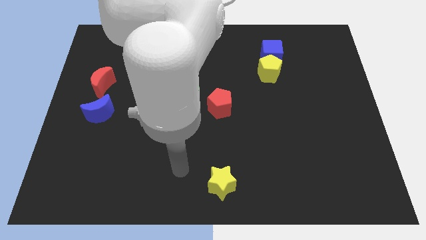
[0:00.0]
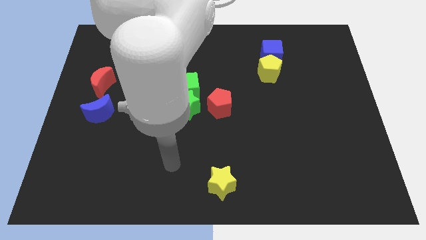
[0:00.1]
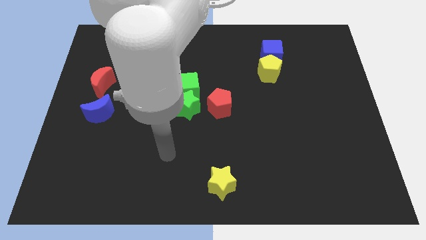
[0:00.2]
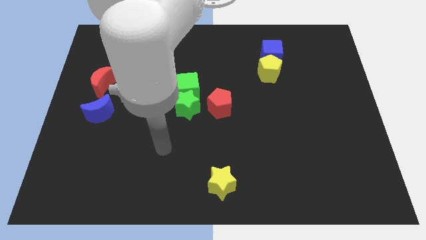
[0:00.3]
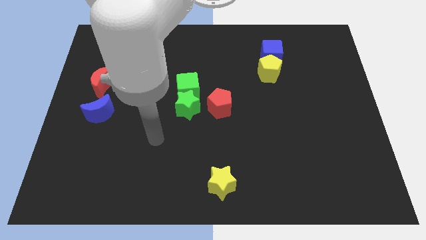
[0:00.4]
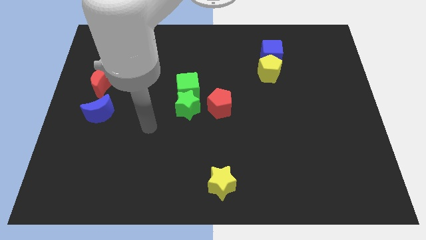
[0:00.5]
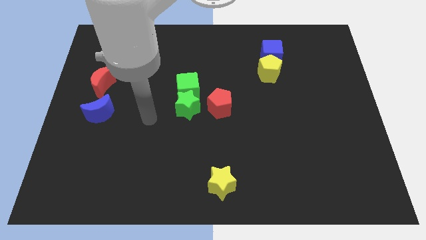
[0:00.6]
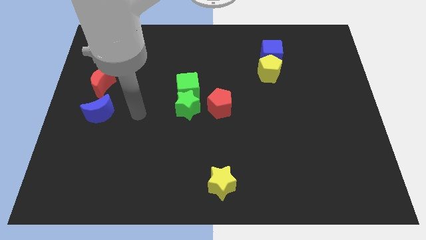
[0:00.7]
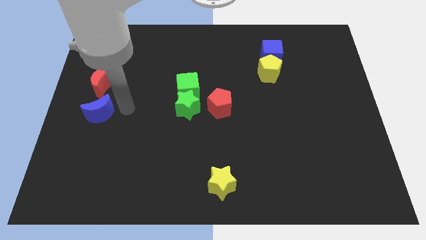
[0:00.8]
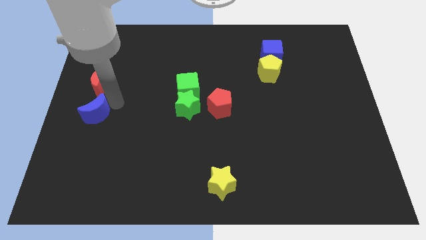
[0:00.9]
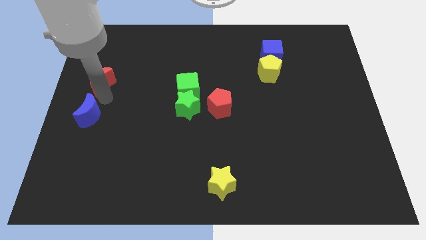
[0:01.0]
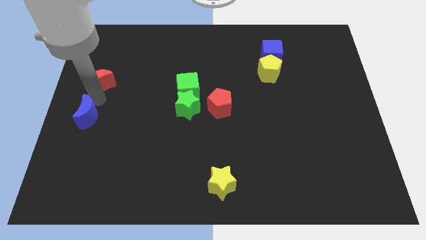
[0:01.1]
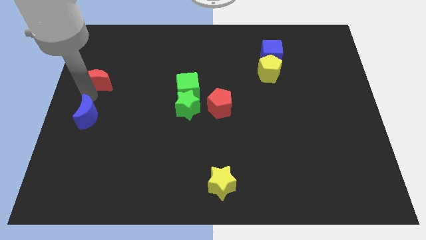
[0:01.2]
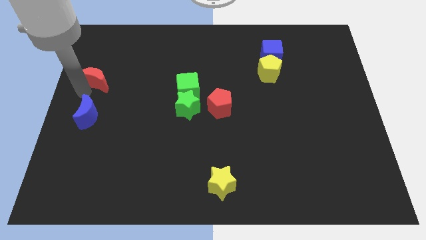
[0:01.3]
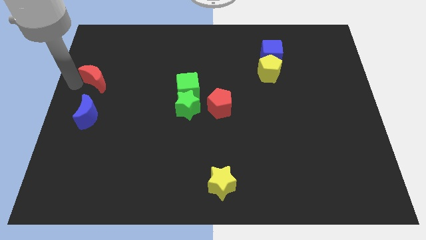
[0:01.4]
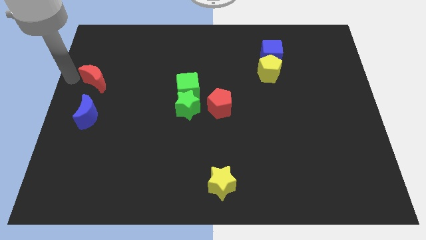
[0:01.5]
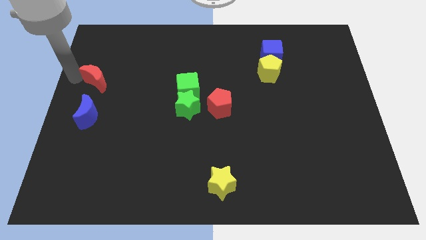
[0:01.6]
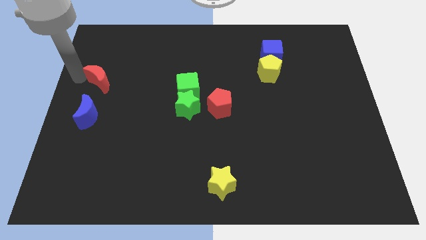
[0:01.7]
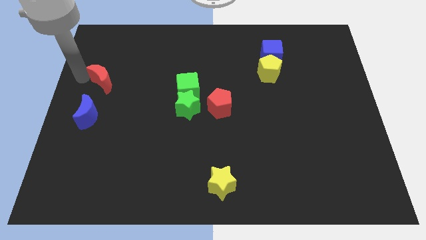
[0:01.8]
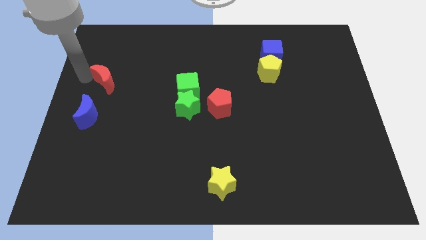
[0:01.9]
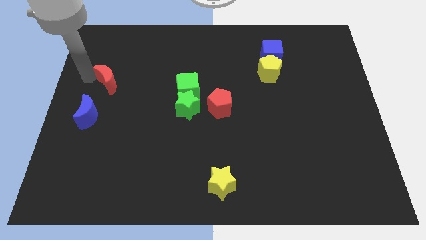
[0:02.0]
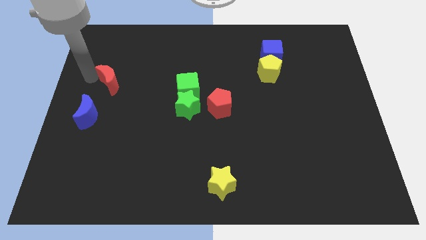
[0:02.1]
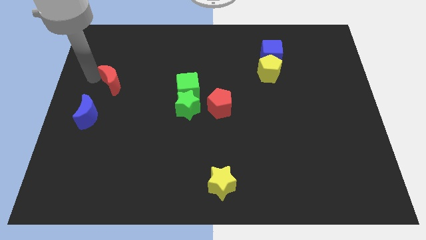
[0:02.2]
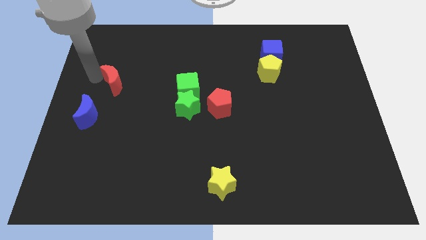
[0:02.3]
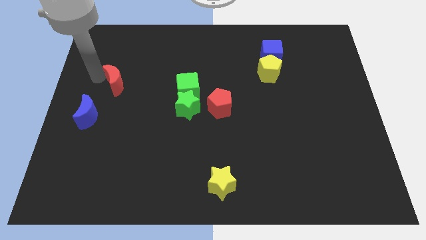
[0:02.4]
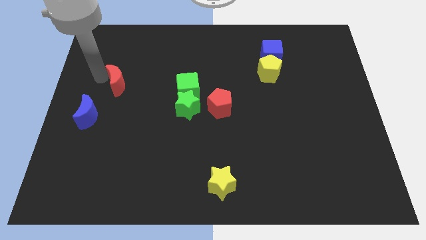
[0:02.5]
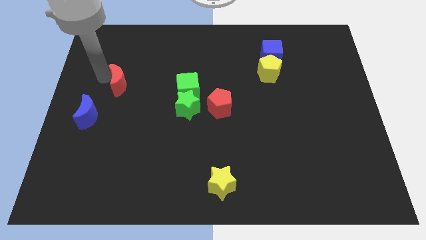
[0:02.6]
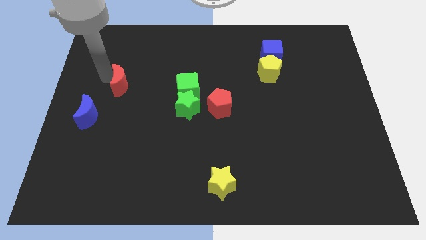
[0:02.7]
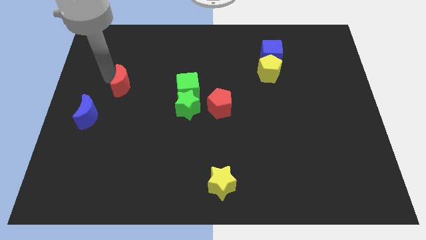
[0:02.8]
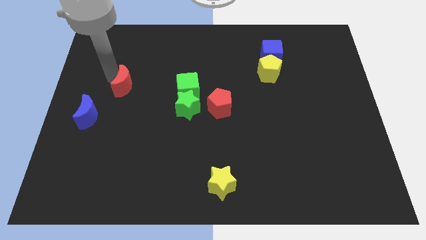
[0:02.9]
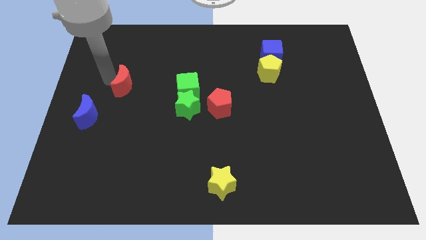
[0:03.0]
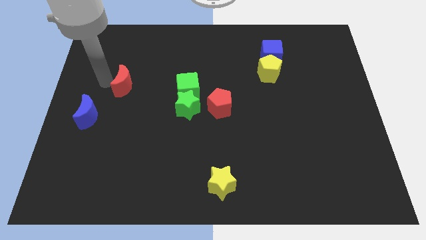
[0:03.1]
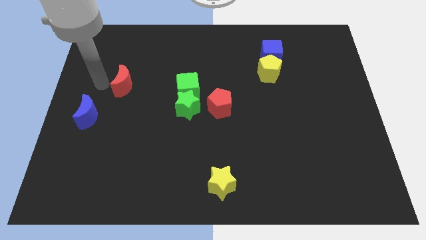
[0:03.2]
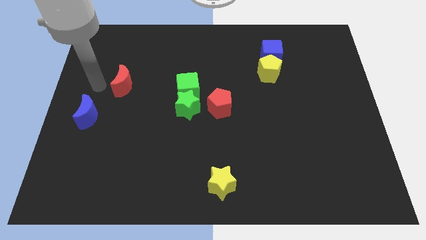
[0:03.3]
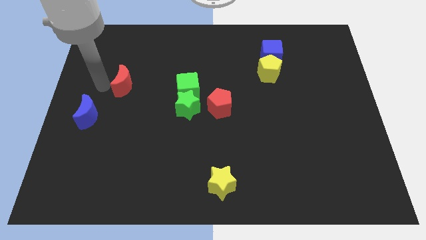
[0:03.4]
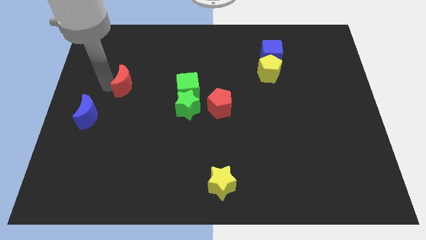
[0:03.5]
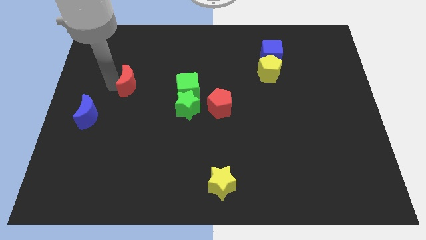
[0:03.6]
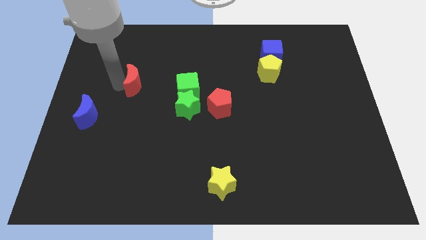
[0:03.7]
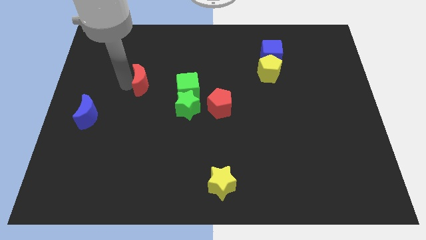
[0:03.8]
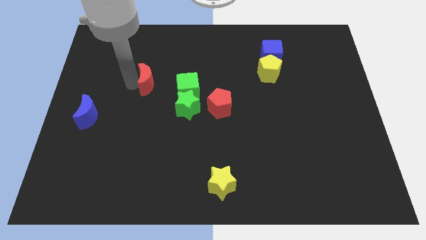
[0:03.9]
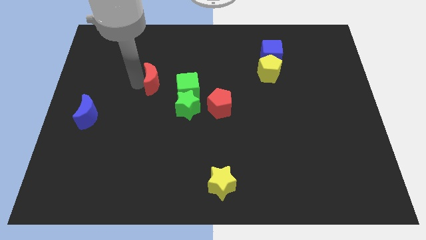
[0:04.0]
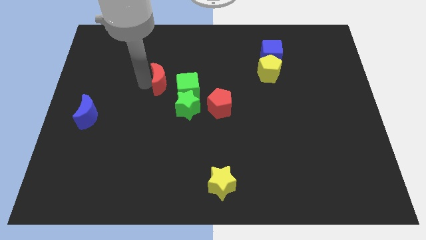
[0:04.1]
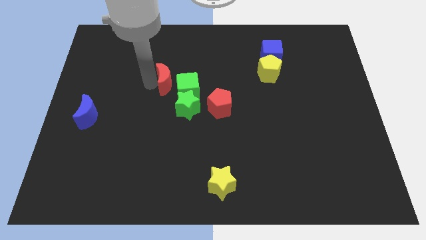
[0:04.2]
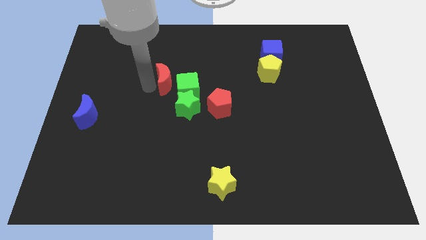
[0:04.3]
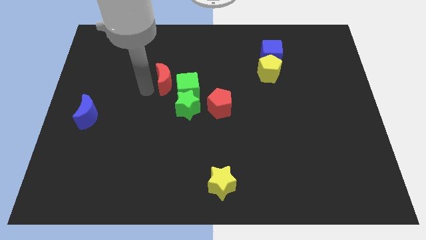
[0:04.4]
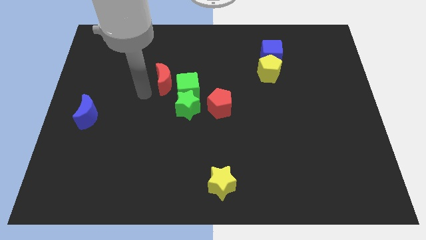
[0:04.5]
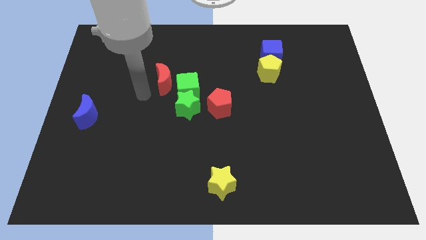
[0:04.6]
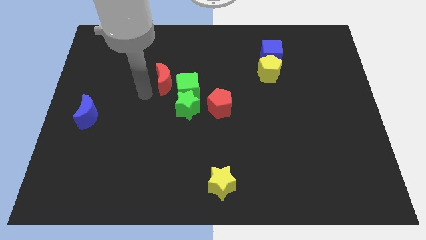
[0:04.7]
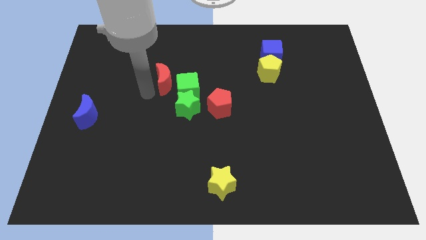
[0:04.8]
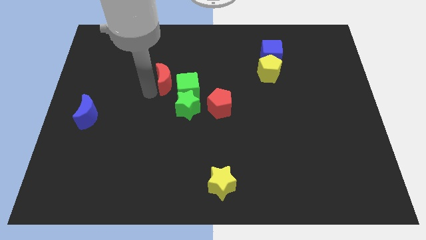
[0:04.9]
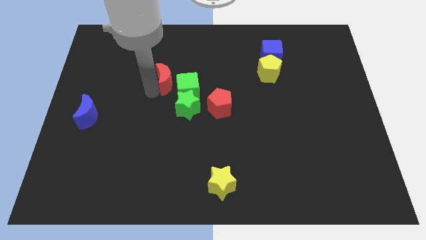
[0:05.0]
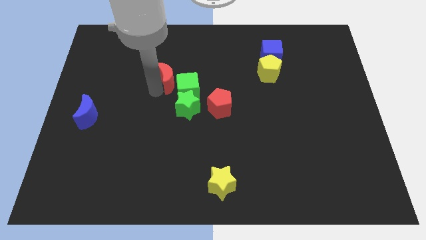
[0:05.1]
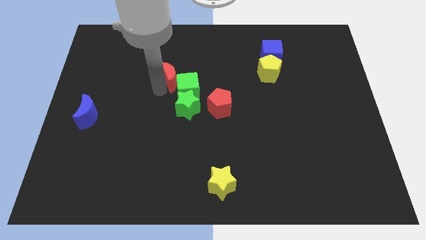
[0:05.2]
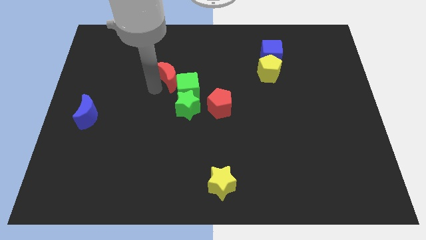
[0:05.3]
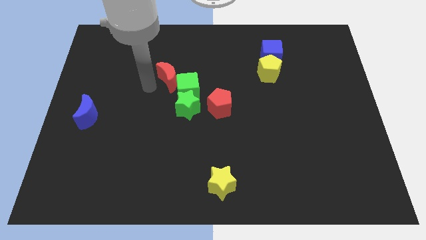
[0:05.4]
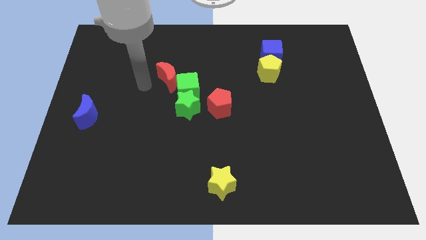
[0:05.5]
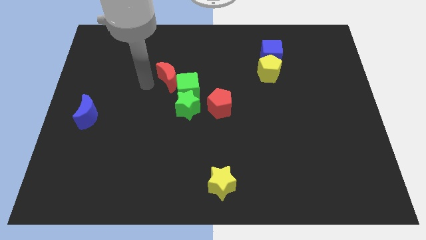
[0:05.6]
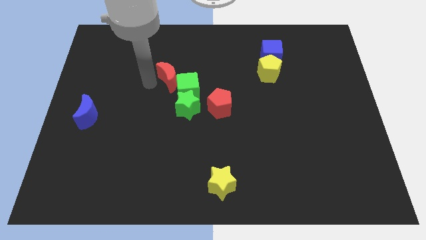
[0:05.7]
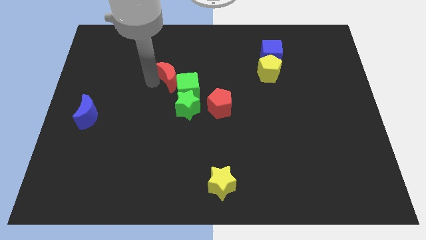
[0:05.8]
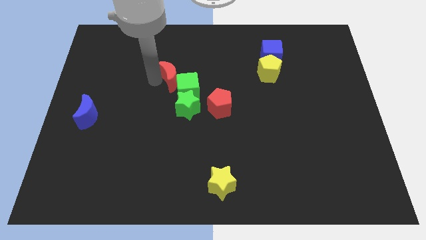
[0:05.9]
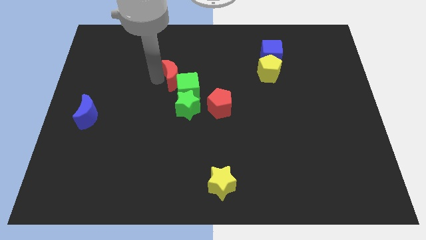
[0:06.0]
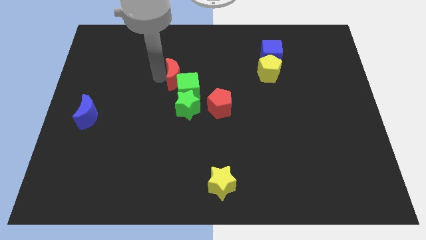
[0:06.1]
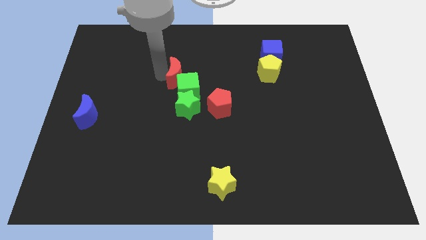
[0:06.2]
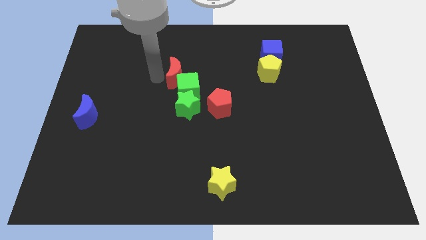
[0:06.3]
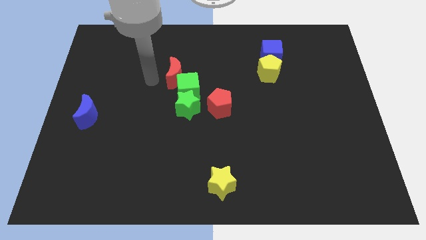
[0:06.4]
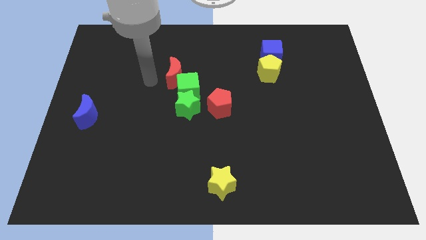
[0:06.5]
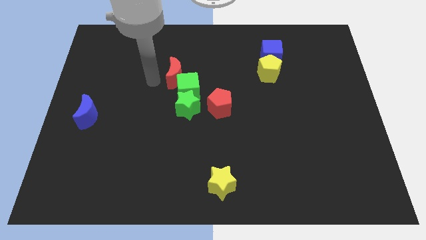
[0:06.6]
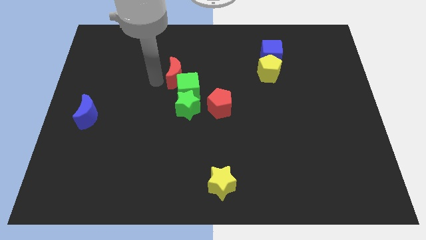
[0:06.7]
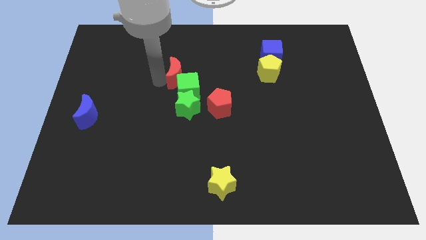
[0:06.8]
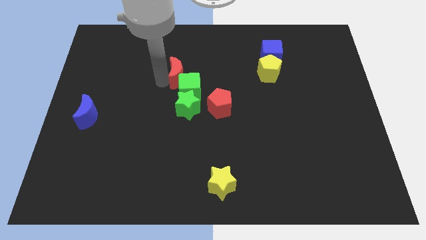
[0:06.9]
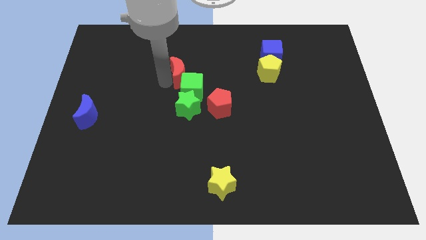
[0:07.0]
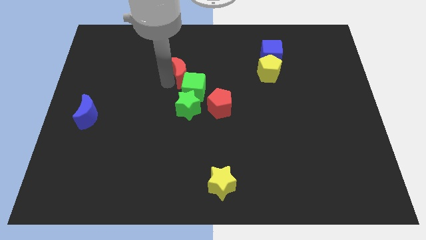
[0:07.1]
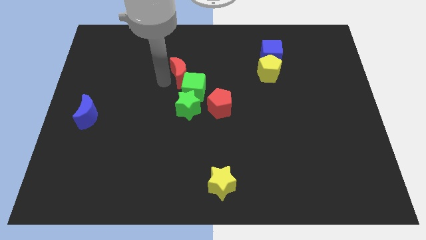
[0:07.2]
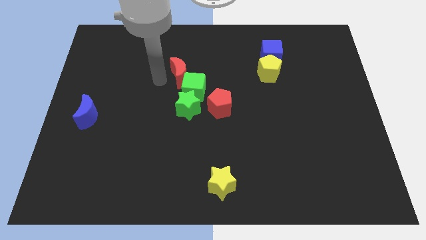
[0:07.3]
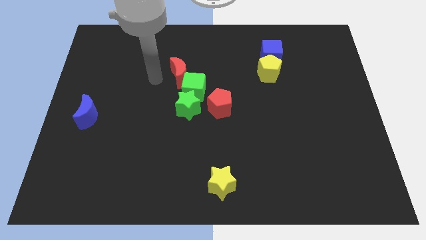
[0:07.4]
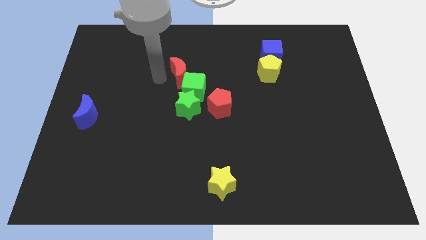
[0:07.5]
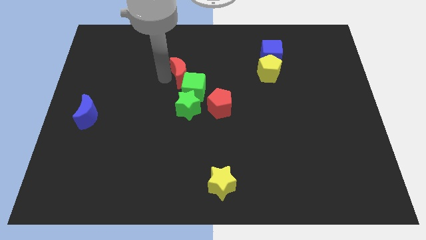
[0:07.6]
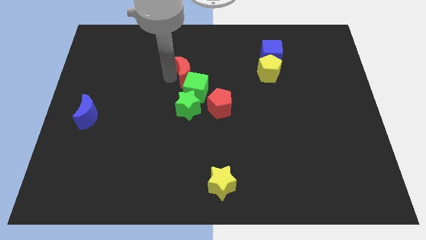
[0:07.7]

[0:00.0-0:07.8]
move the red moon right

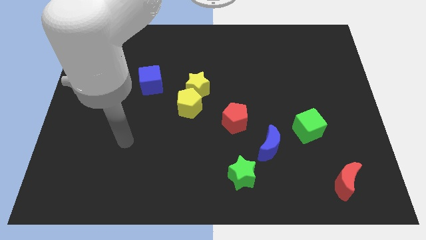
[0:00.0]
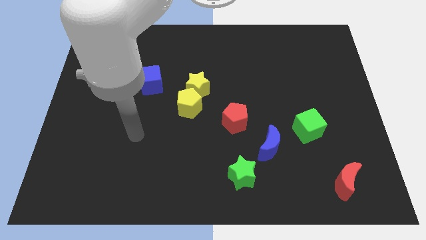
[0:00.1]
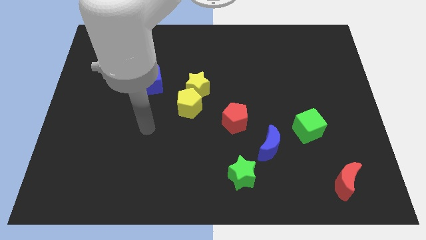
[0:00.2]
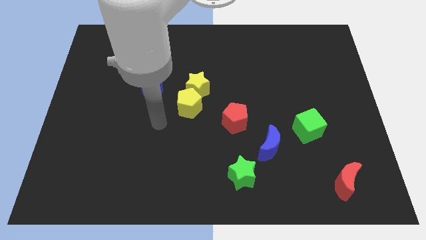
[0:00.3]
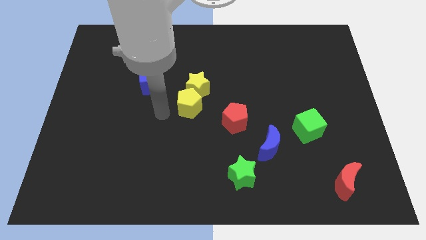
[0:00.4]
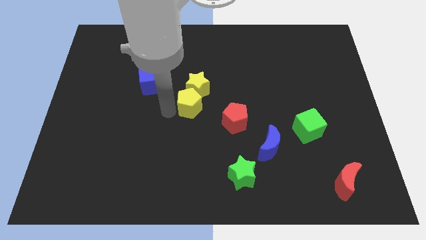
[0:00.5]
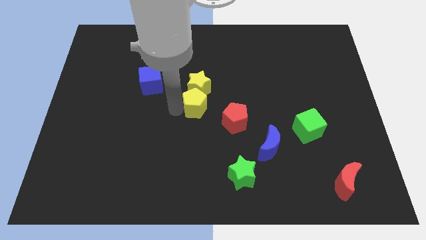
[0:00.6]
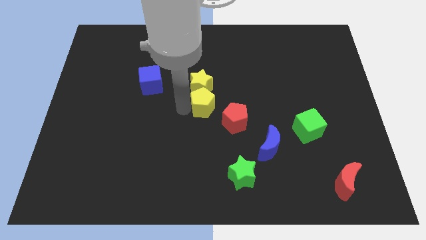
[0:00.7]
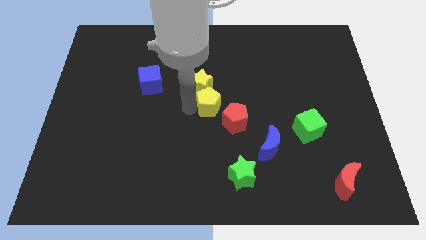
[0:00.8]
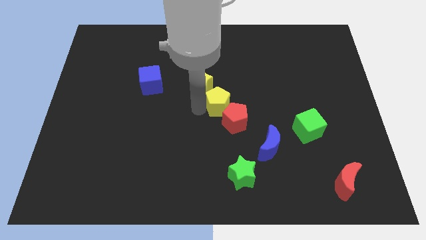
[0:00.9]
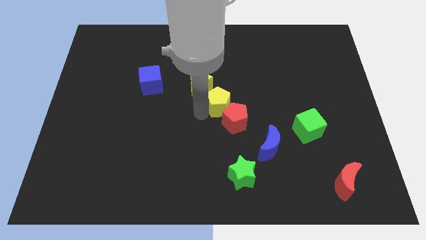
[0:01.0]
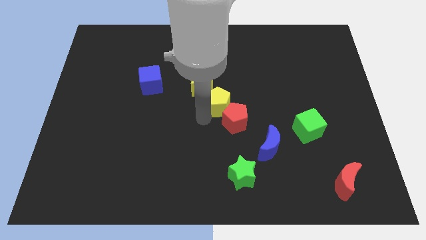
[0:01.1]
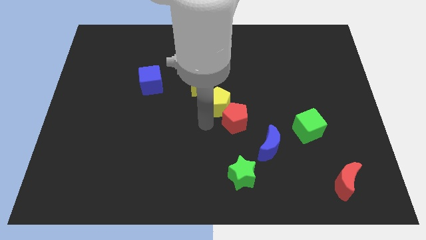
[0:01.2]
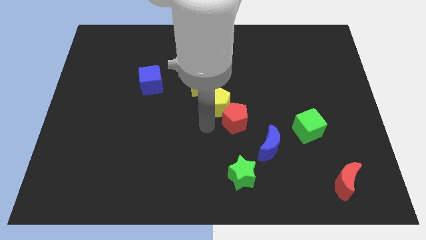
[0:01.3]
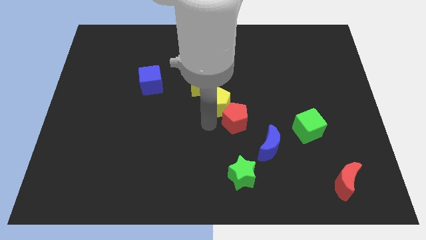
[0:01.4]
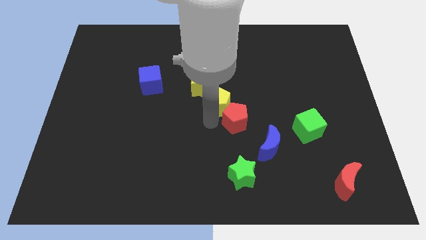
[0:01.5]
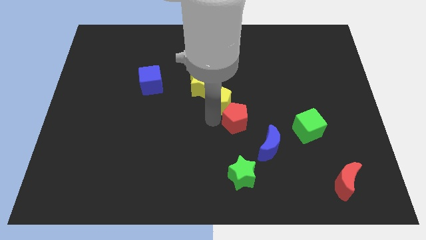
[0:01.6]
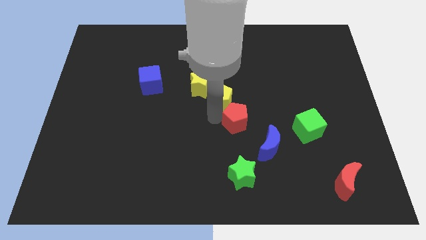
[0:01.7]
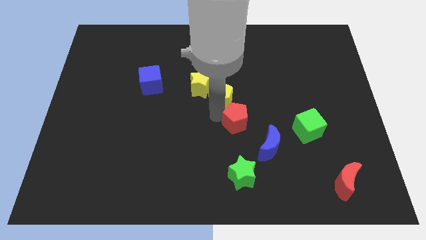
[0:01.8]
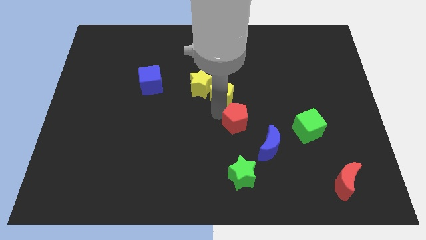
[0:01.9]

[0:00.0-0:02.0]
move the yellow pentagon up and to the right a little bit
